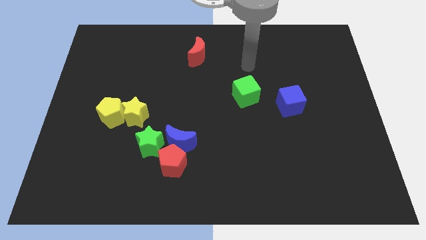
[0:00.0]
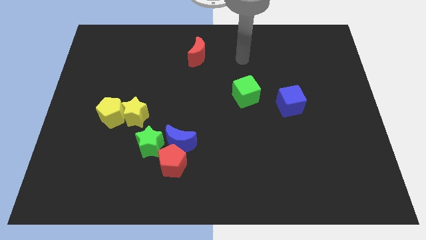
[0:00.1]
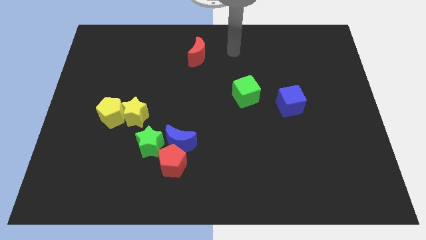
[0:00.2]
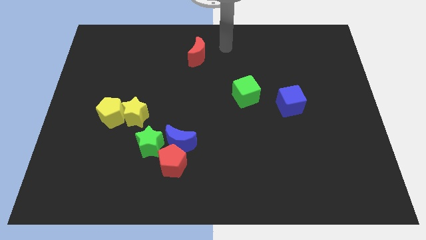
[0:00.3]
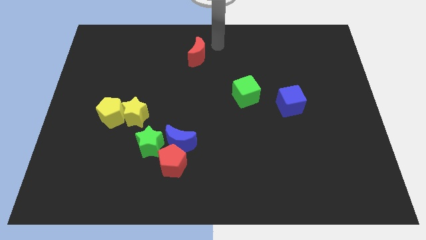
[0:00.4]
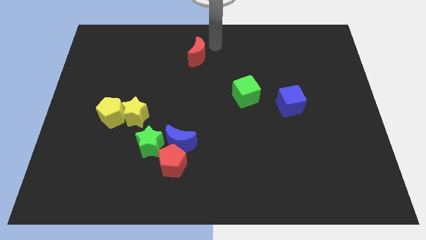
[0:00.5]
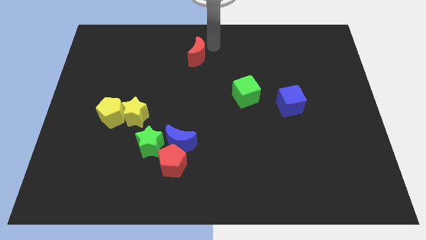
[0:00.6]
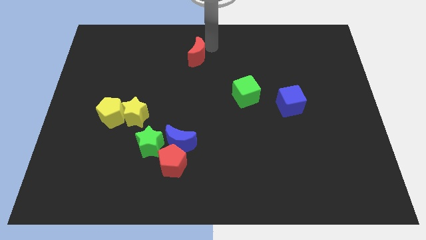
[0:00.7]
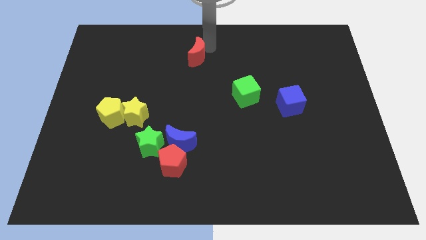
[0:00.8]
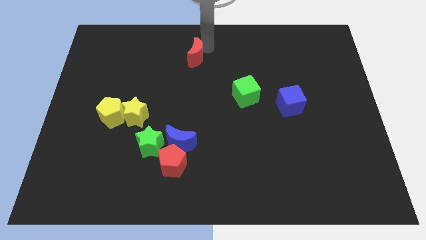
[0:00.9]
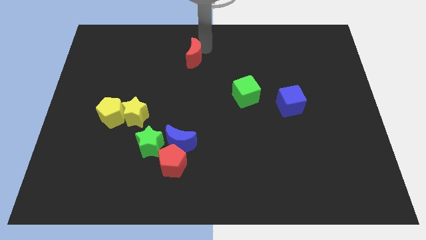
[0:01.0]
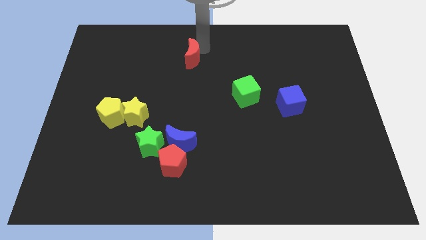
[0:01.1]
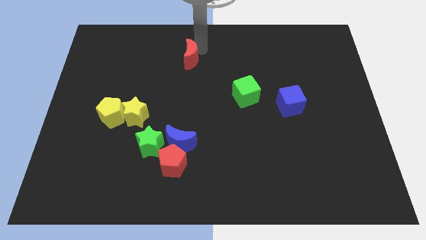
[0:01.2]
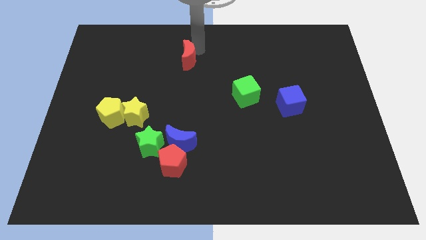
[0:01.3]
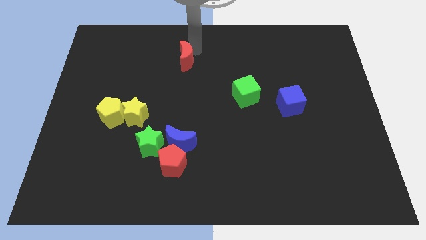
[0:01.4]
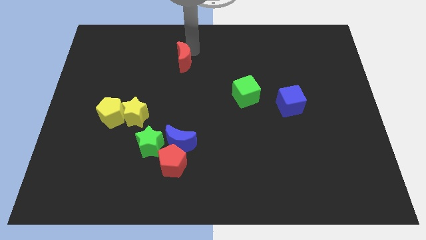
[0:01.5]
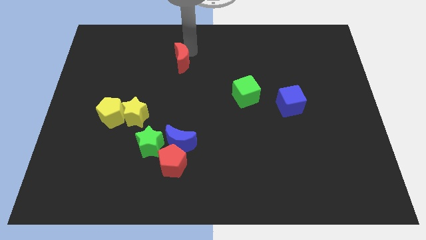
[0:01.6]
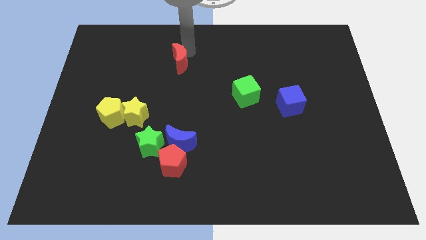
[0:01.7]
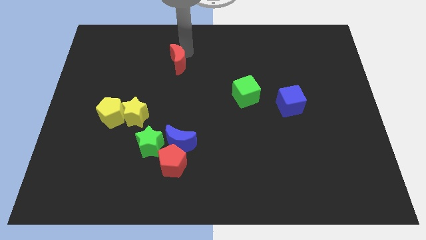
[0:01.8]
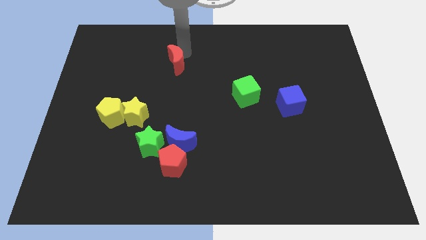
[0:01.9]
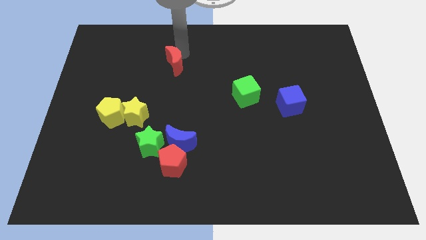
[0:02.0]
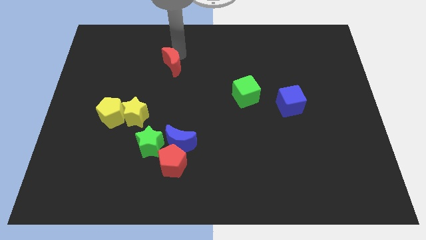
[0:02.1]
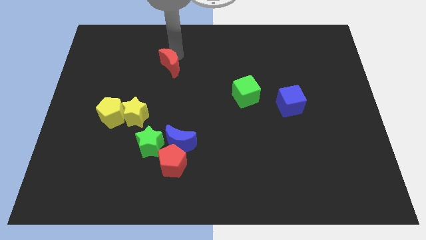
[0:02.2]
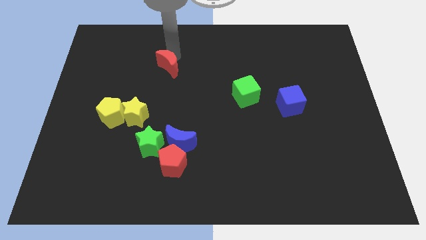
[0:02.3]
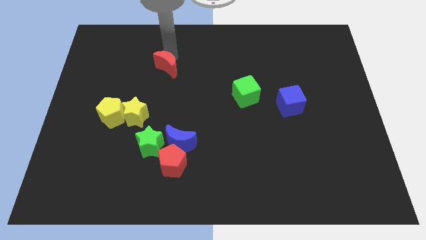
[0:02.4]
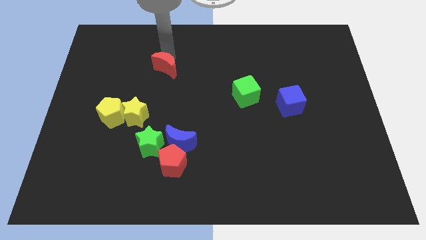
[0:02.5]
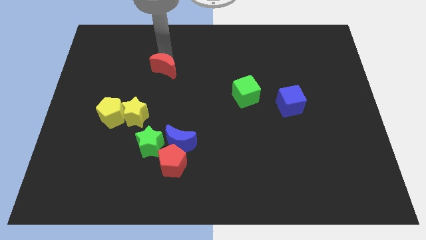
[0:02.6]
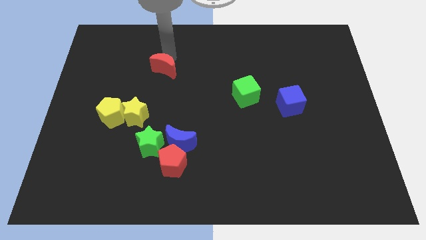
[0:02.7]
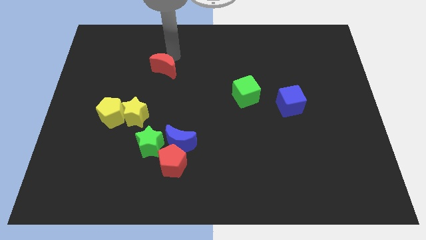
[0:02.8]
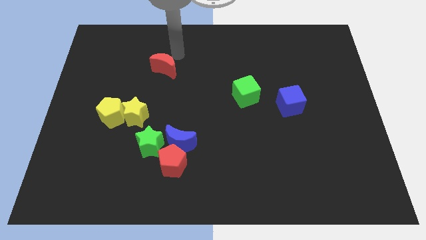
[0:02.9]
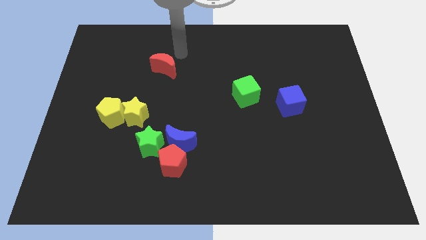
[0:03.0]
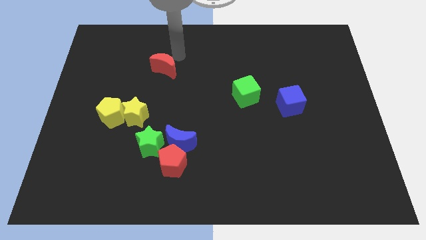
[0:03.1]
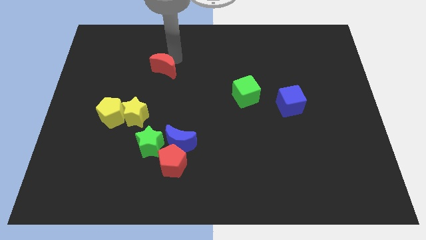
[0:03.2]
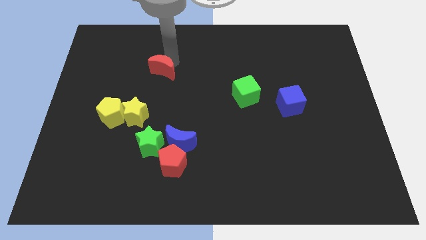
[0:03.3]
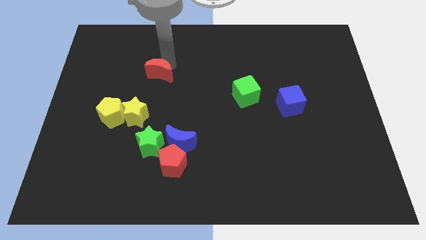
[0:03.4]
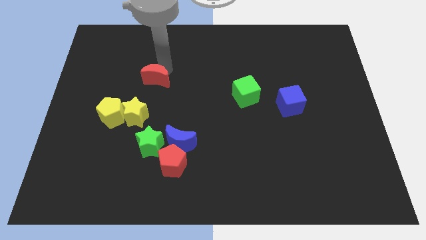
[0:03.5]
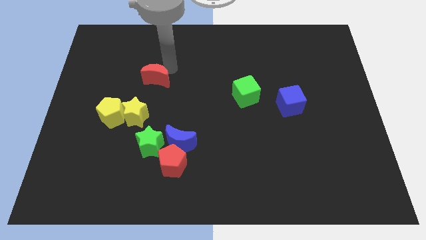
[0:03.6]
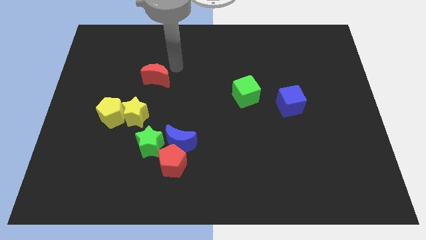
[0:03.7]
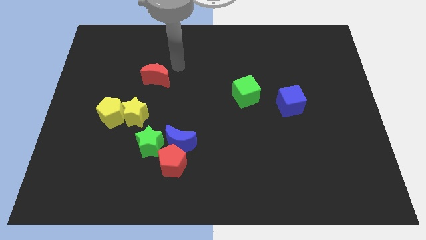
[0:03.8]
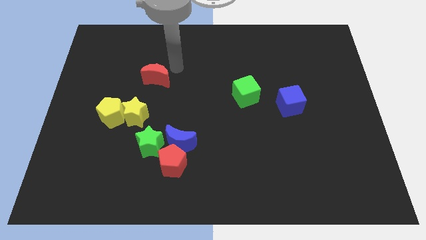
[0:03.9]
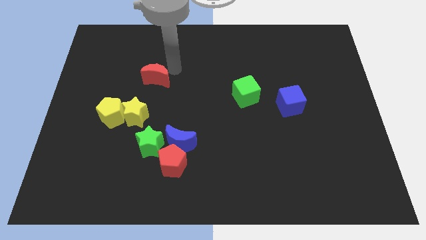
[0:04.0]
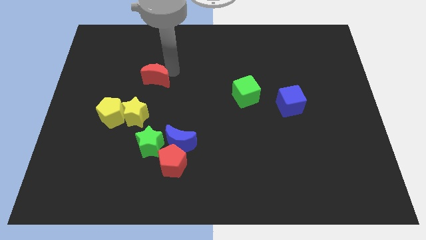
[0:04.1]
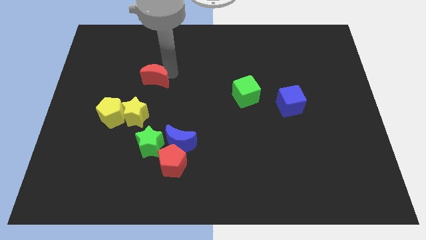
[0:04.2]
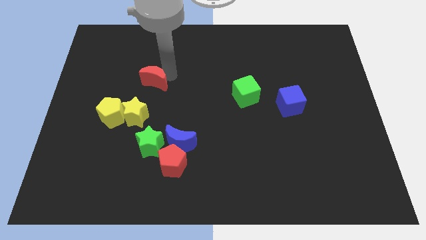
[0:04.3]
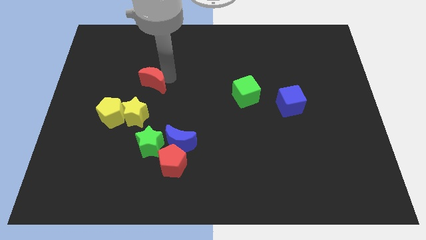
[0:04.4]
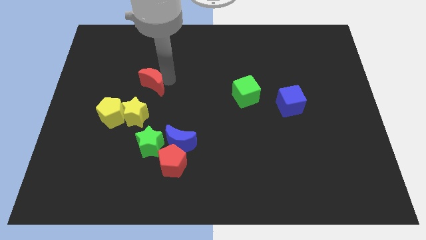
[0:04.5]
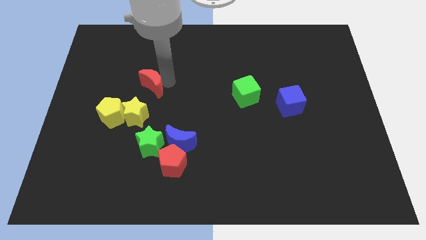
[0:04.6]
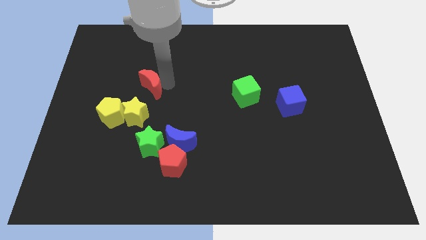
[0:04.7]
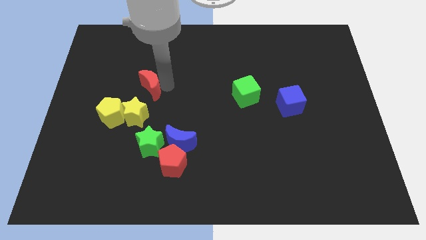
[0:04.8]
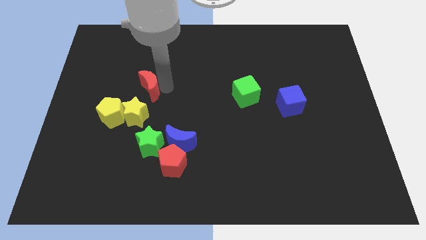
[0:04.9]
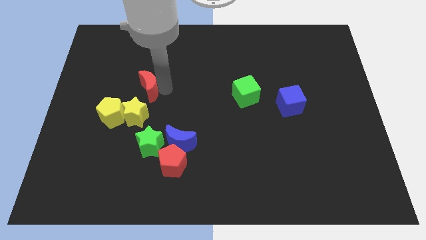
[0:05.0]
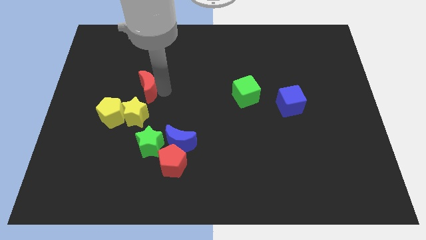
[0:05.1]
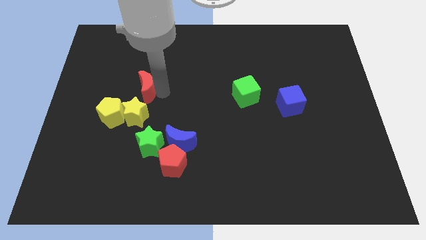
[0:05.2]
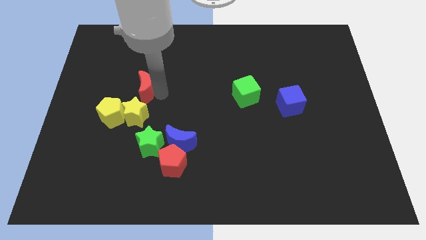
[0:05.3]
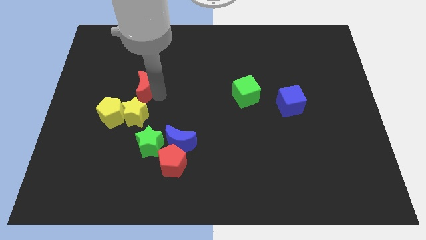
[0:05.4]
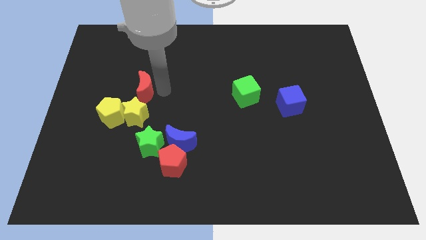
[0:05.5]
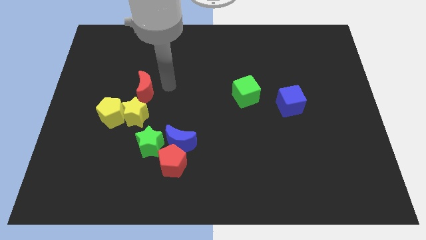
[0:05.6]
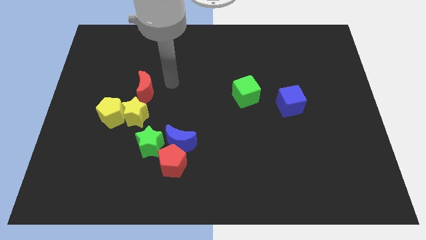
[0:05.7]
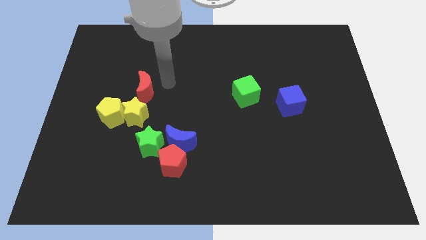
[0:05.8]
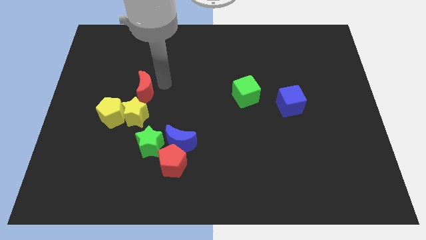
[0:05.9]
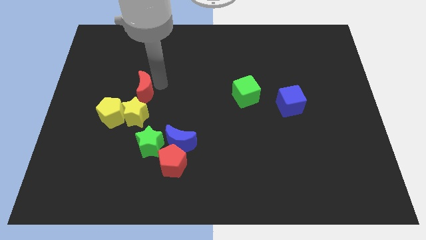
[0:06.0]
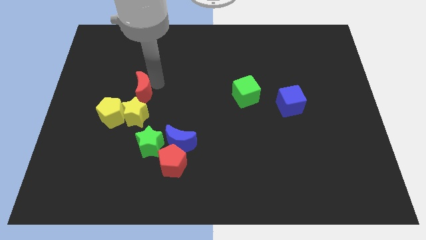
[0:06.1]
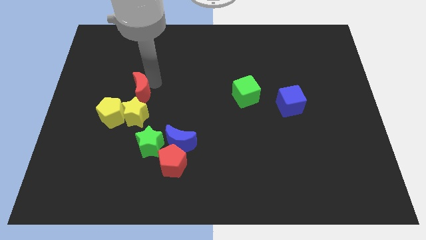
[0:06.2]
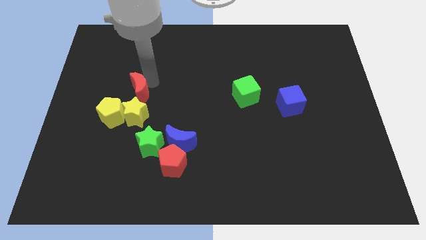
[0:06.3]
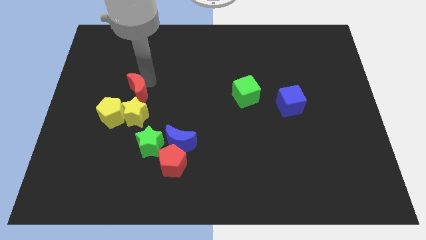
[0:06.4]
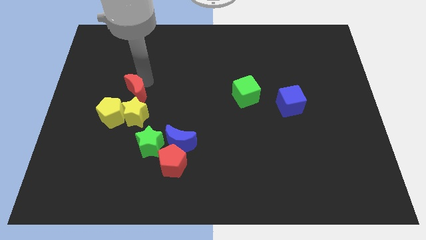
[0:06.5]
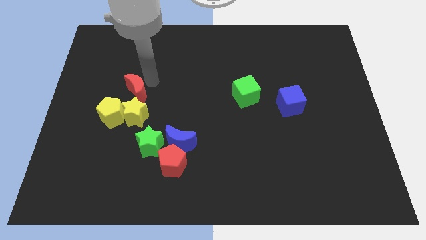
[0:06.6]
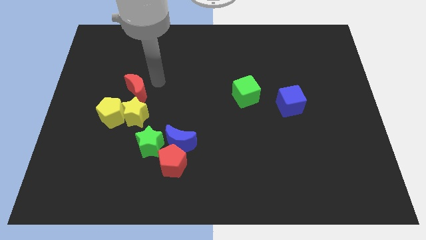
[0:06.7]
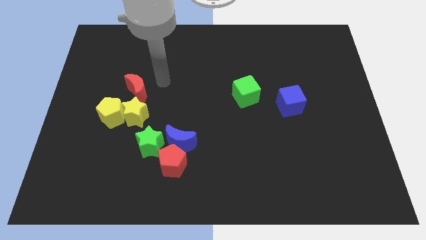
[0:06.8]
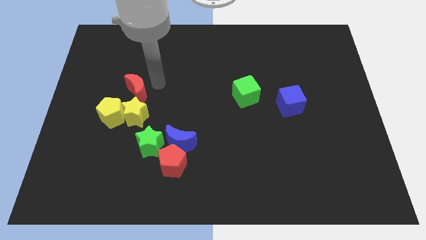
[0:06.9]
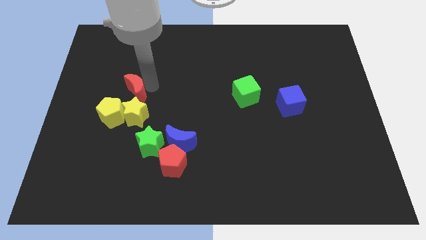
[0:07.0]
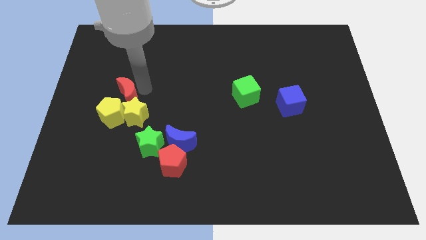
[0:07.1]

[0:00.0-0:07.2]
push the red moon down and left diagonally

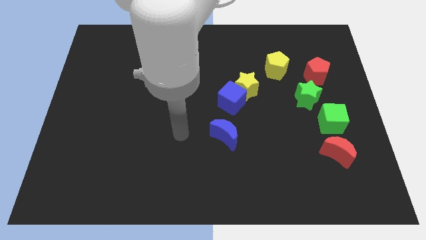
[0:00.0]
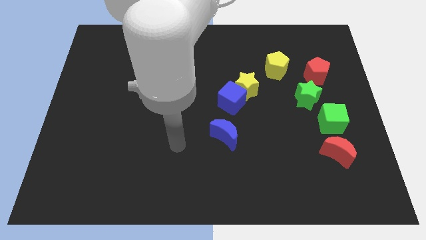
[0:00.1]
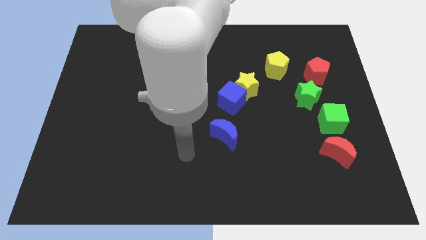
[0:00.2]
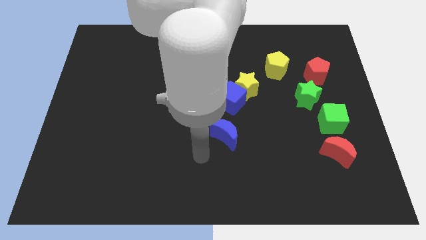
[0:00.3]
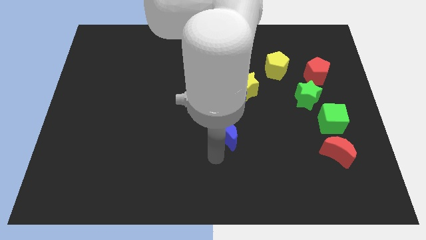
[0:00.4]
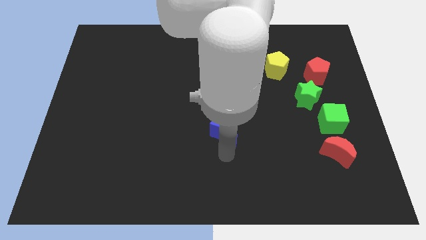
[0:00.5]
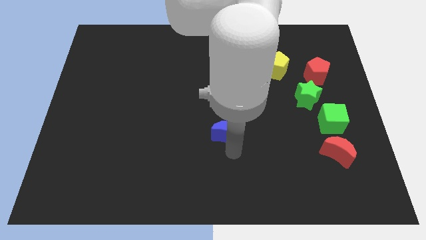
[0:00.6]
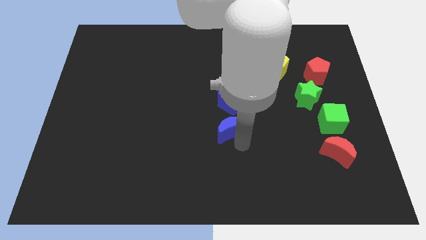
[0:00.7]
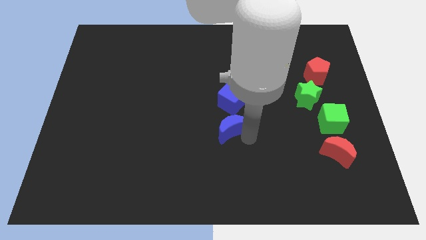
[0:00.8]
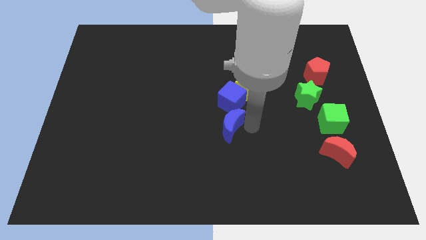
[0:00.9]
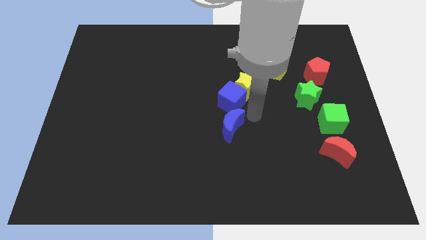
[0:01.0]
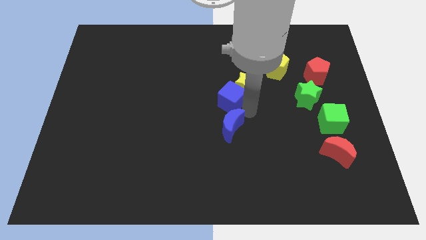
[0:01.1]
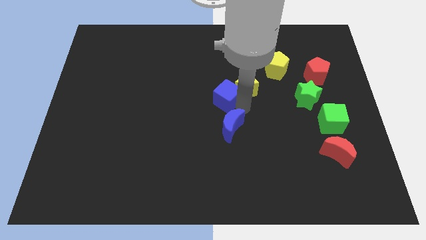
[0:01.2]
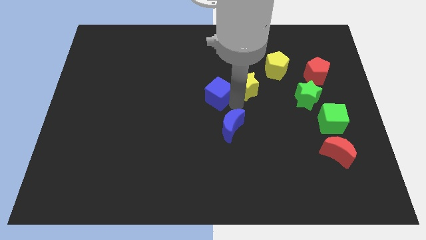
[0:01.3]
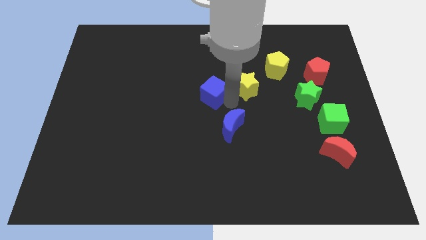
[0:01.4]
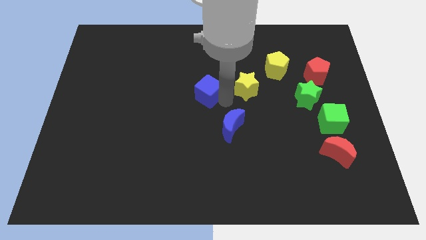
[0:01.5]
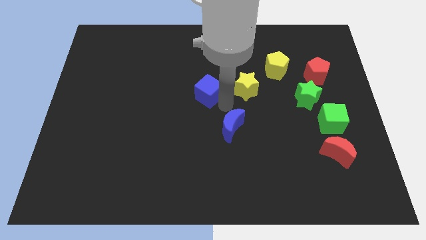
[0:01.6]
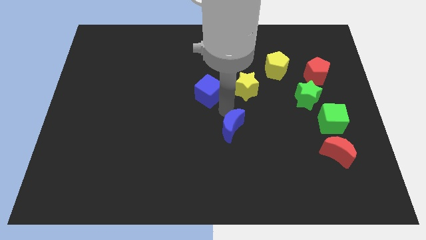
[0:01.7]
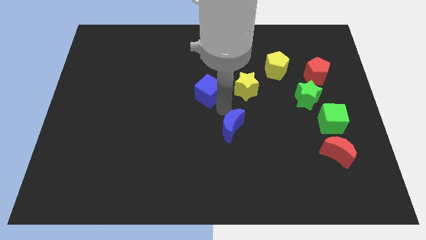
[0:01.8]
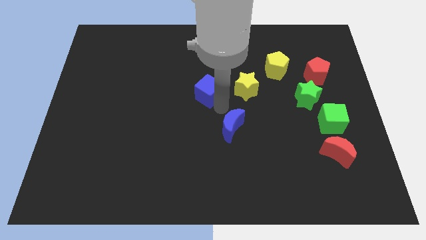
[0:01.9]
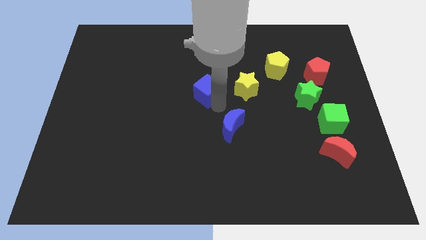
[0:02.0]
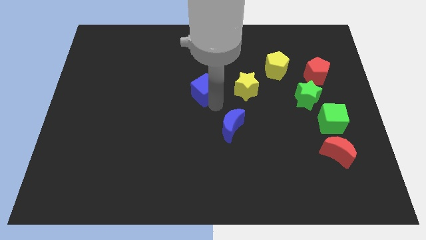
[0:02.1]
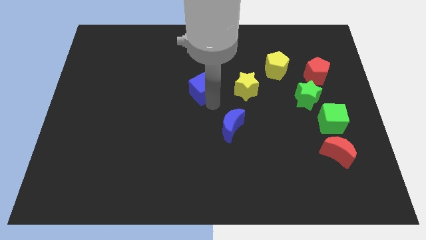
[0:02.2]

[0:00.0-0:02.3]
push the blue cube a little bit upwards and to the left diagonally
